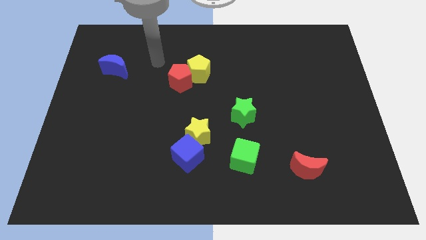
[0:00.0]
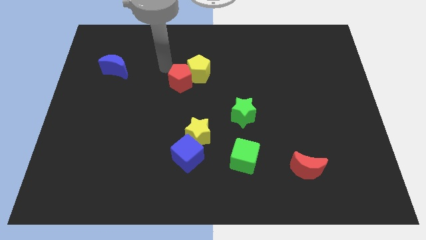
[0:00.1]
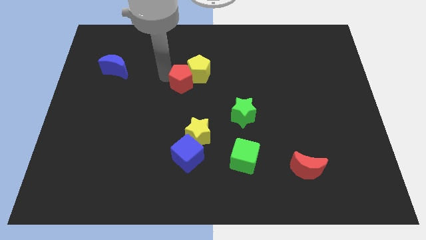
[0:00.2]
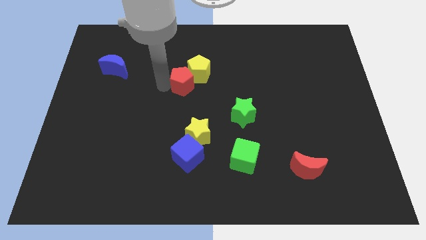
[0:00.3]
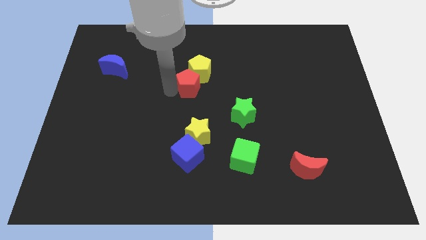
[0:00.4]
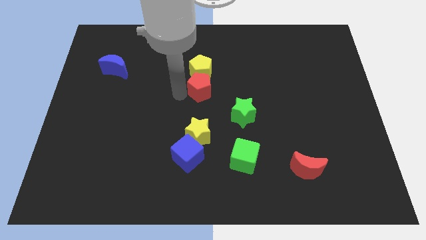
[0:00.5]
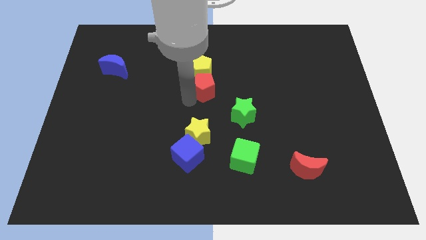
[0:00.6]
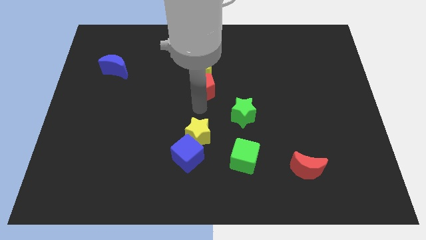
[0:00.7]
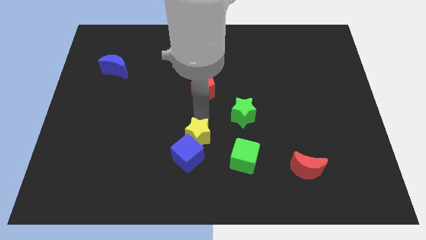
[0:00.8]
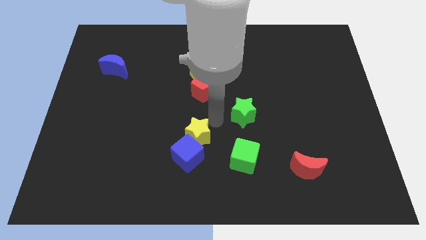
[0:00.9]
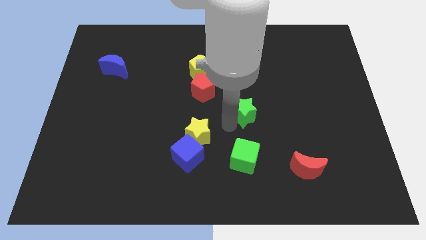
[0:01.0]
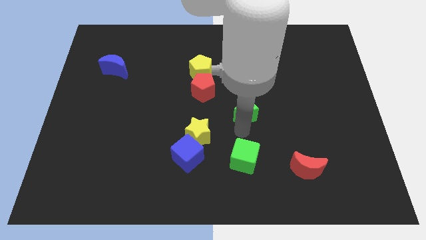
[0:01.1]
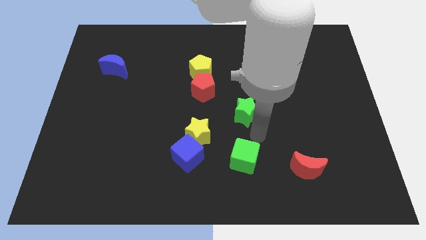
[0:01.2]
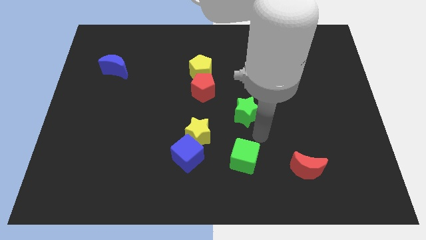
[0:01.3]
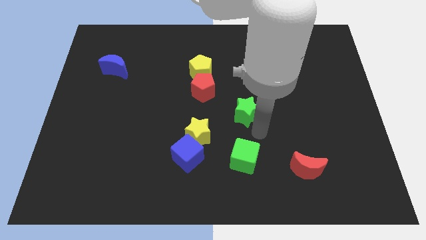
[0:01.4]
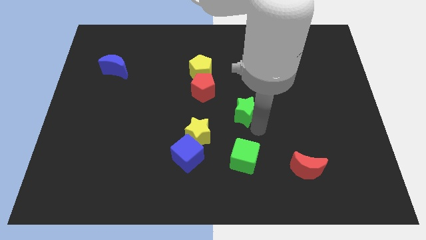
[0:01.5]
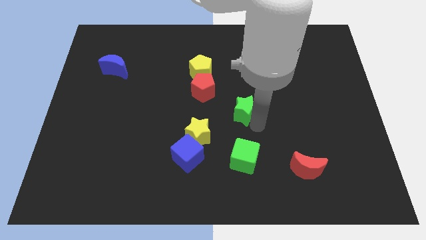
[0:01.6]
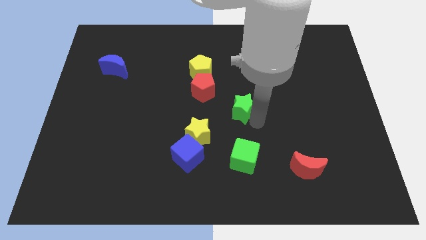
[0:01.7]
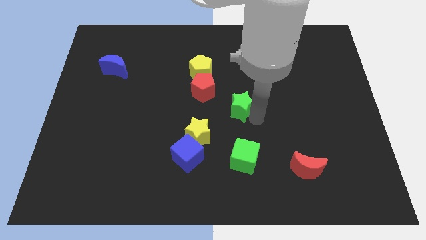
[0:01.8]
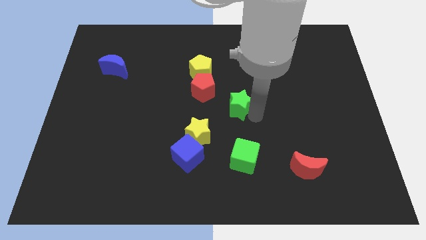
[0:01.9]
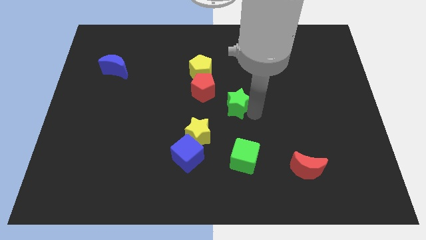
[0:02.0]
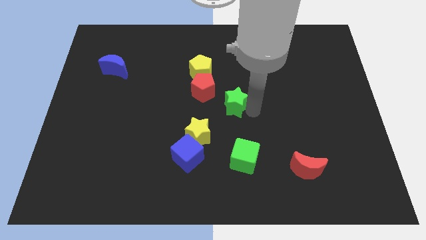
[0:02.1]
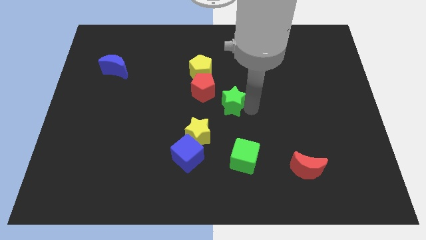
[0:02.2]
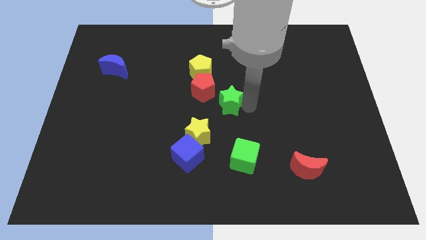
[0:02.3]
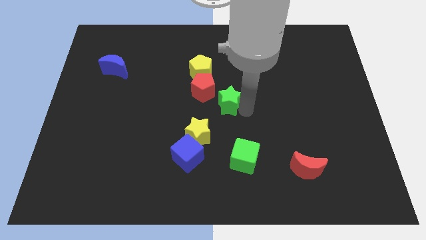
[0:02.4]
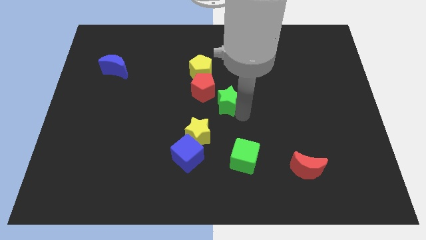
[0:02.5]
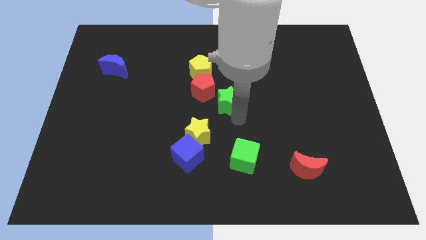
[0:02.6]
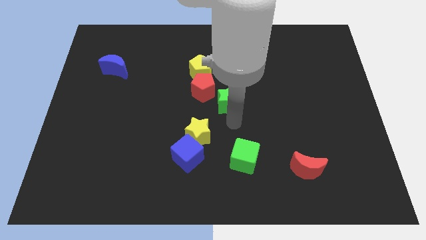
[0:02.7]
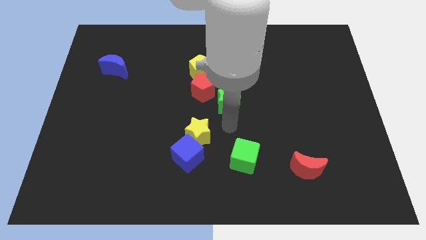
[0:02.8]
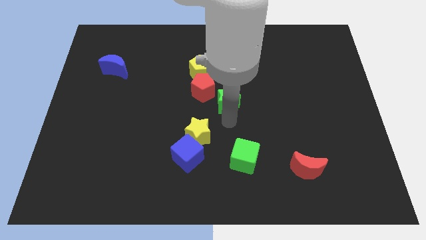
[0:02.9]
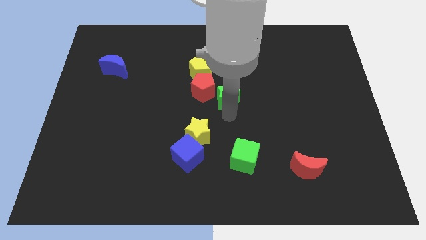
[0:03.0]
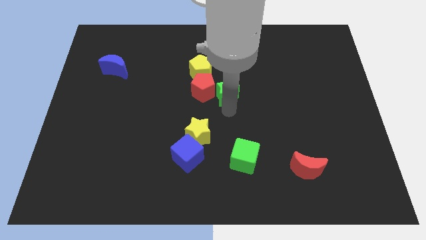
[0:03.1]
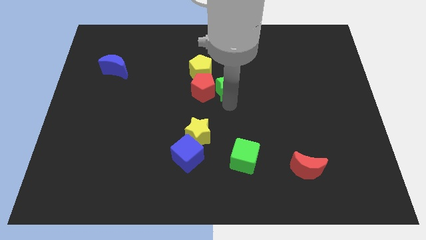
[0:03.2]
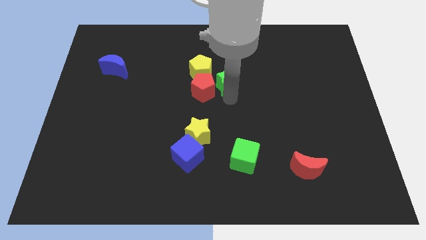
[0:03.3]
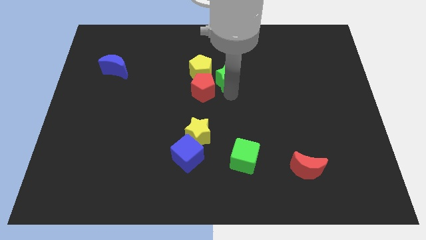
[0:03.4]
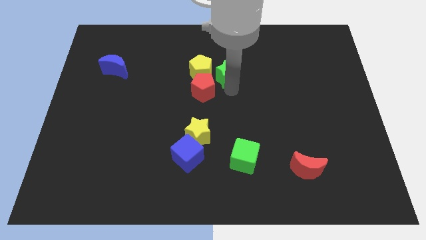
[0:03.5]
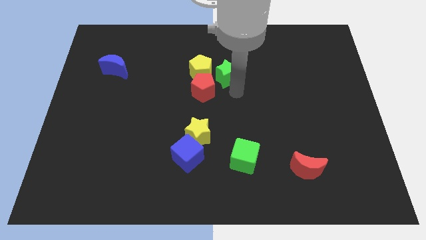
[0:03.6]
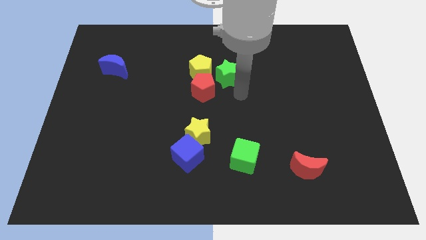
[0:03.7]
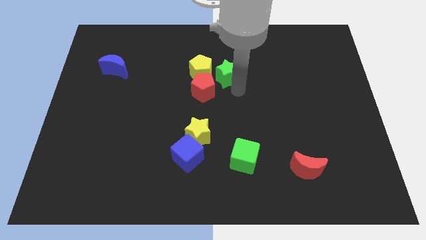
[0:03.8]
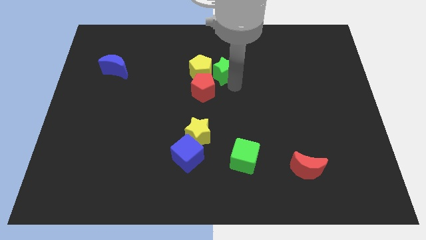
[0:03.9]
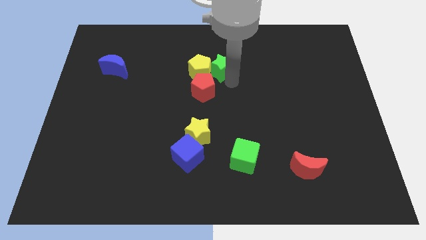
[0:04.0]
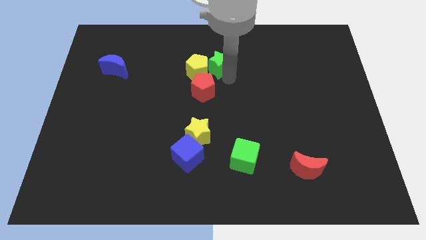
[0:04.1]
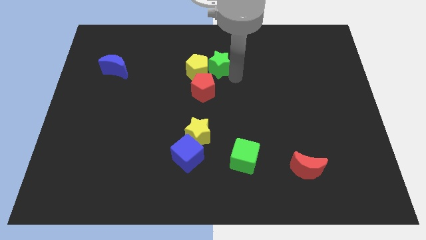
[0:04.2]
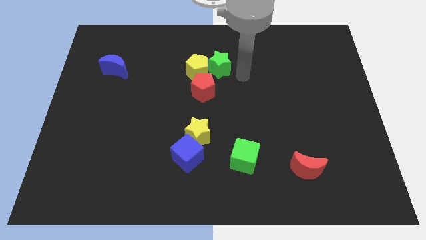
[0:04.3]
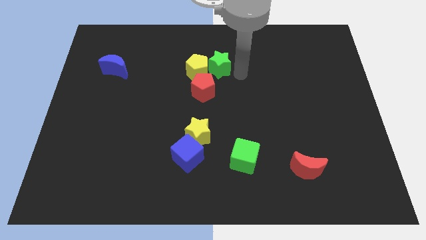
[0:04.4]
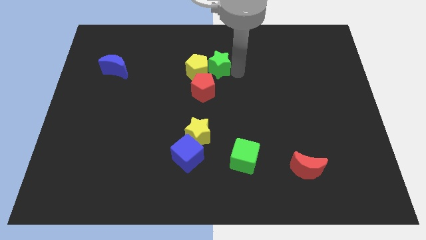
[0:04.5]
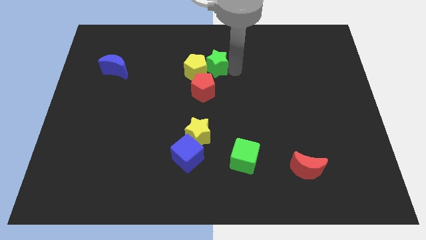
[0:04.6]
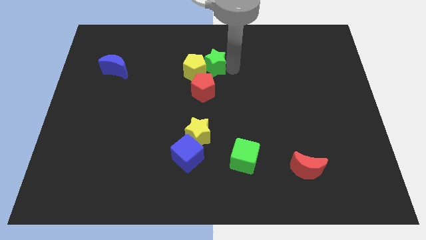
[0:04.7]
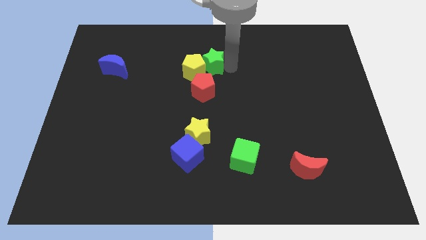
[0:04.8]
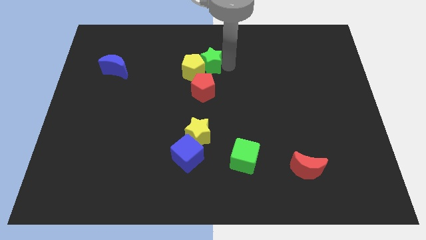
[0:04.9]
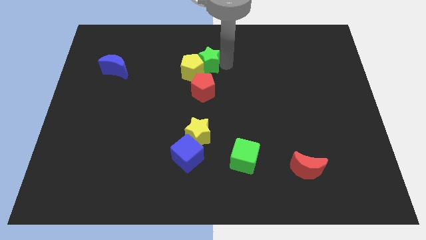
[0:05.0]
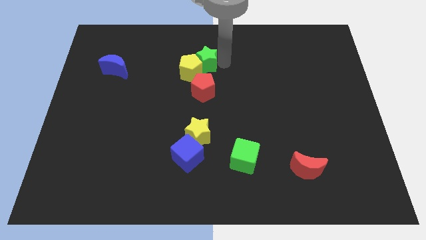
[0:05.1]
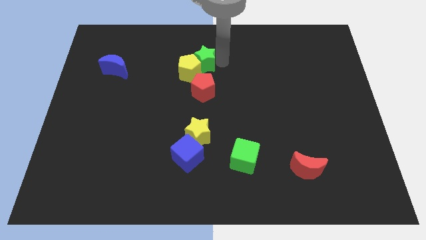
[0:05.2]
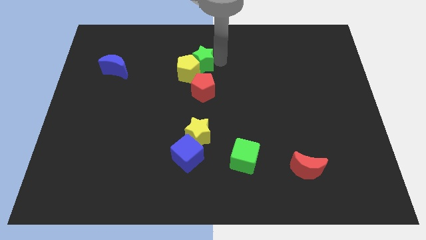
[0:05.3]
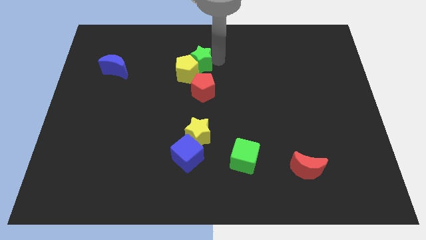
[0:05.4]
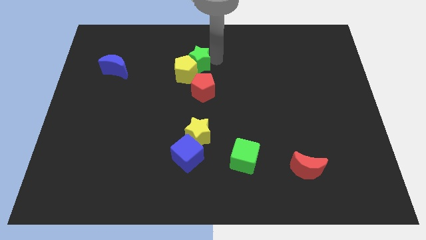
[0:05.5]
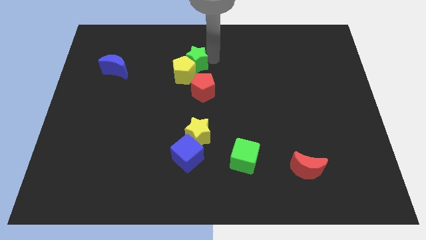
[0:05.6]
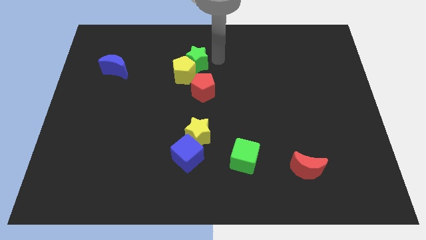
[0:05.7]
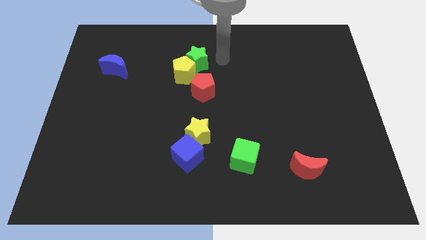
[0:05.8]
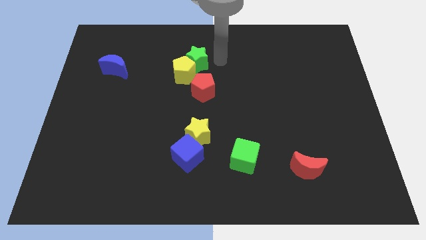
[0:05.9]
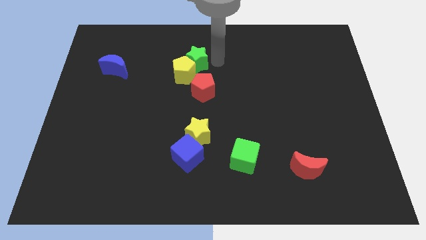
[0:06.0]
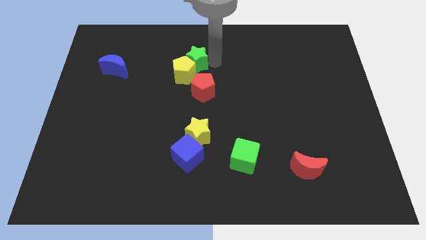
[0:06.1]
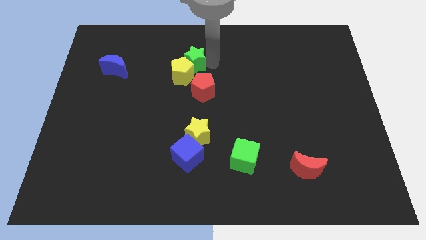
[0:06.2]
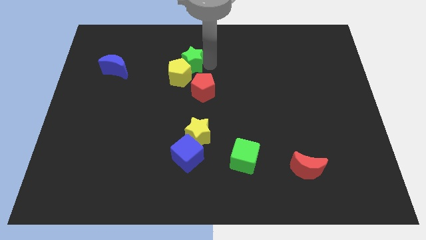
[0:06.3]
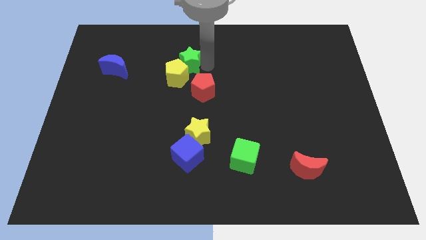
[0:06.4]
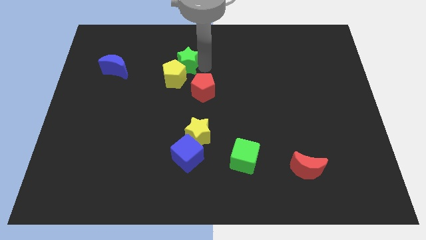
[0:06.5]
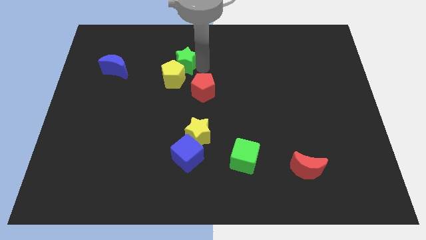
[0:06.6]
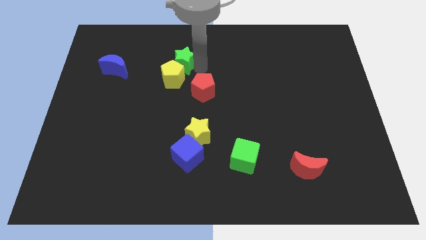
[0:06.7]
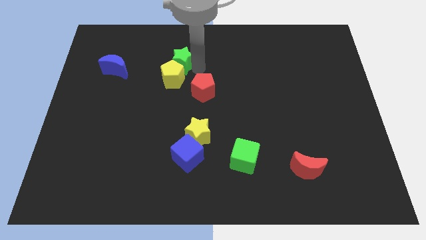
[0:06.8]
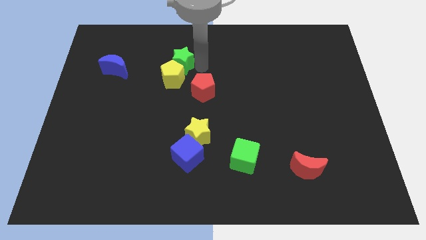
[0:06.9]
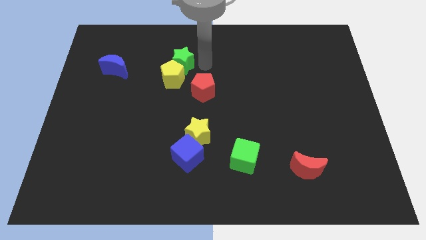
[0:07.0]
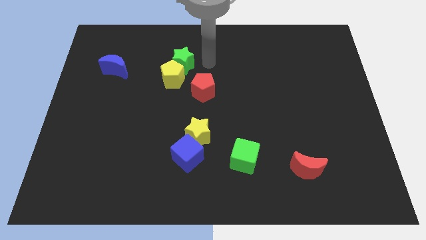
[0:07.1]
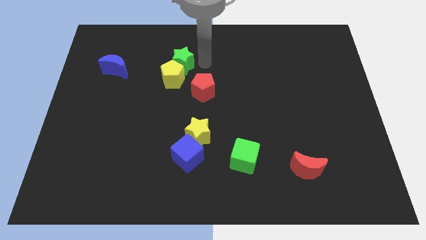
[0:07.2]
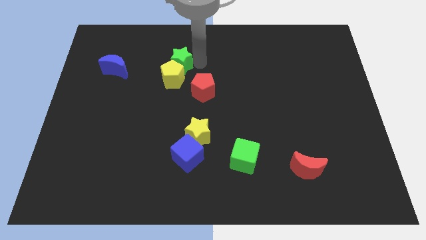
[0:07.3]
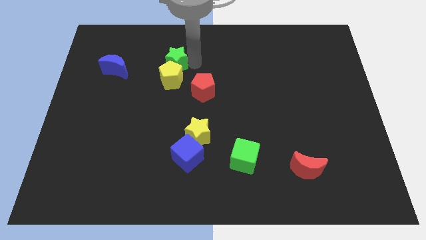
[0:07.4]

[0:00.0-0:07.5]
put the green star just right of the blue moon

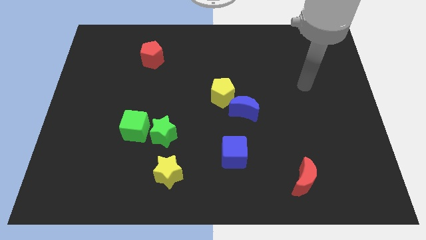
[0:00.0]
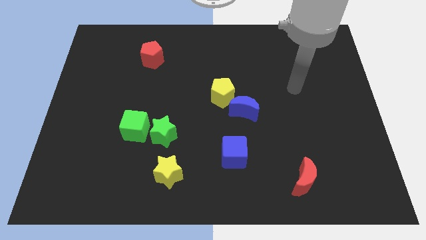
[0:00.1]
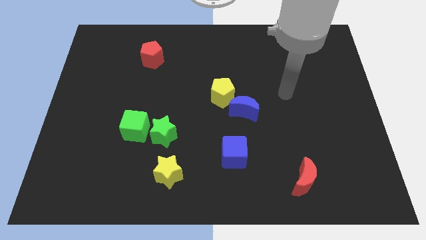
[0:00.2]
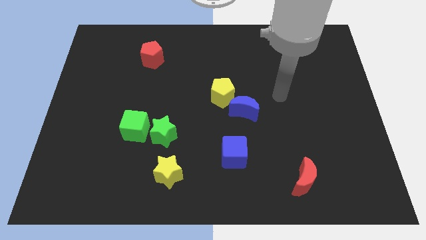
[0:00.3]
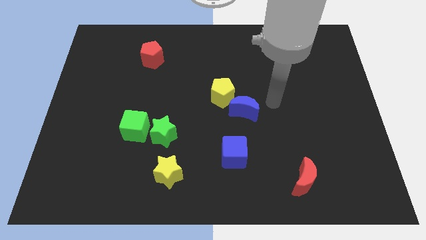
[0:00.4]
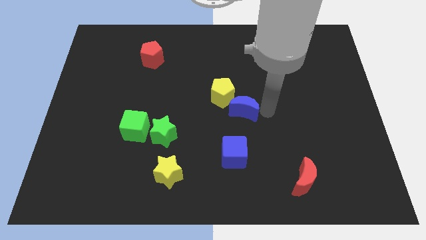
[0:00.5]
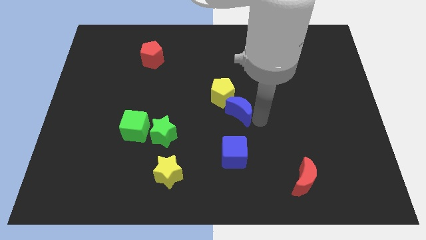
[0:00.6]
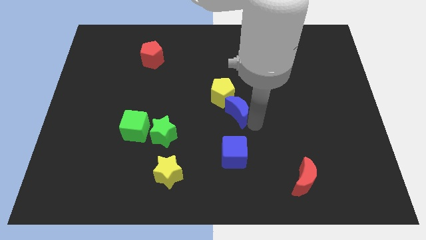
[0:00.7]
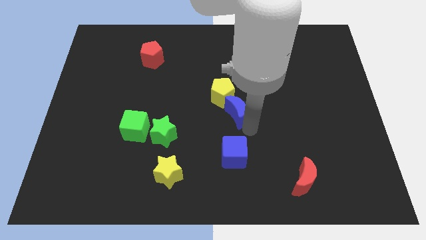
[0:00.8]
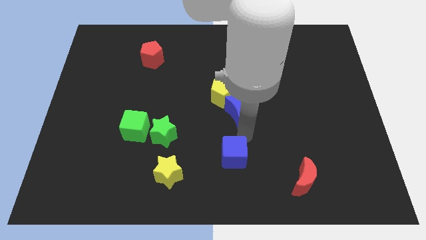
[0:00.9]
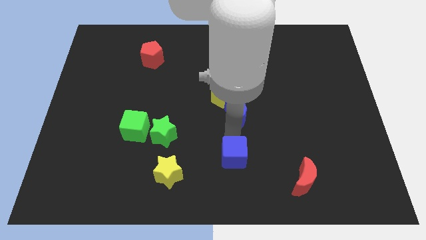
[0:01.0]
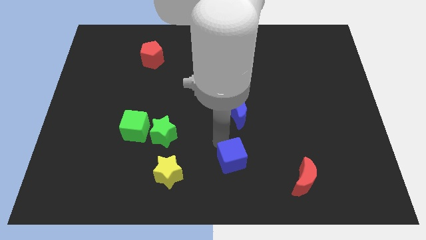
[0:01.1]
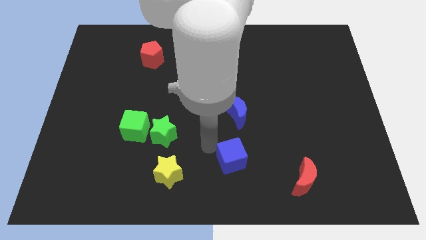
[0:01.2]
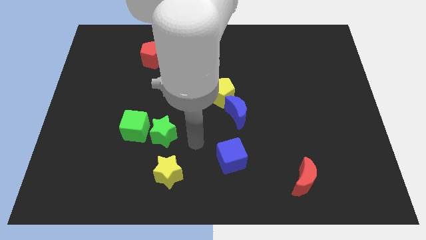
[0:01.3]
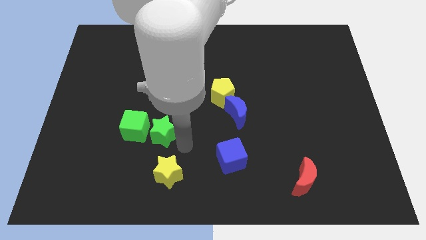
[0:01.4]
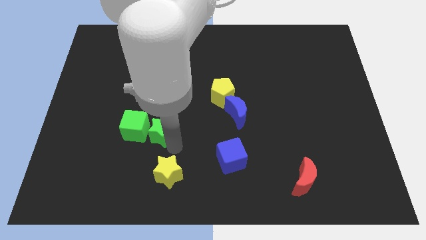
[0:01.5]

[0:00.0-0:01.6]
push the yellow star diagonally down and to the right of the green star
